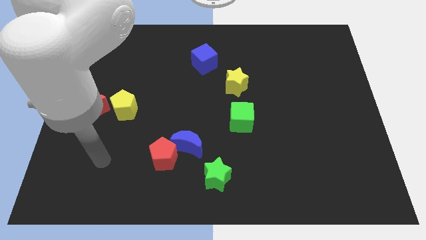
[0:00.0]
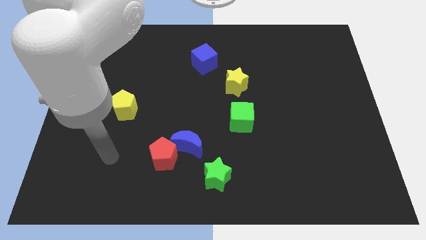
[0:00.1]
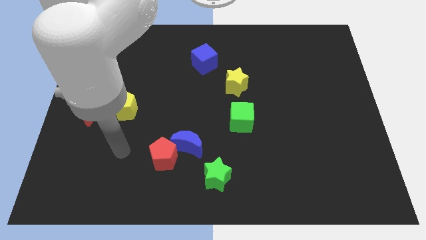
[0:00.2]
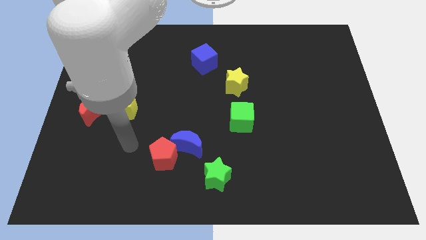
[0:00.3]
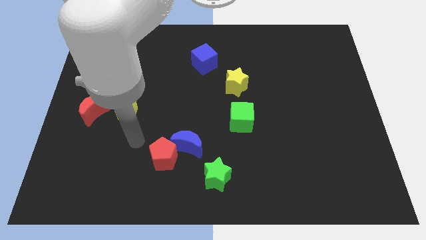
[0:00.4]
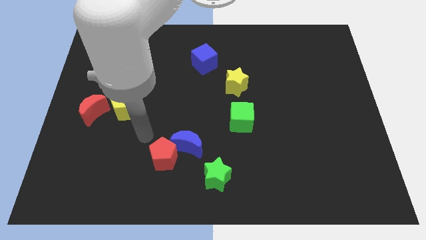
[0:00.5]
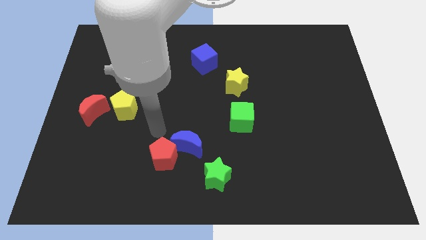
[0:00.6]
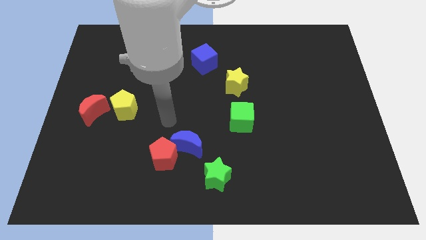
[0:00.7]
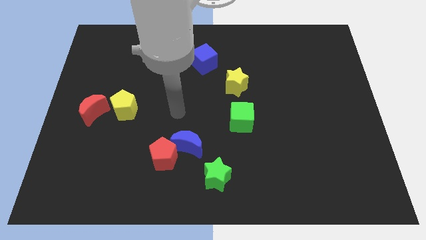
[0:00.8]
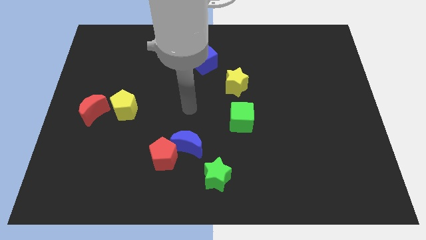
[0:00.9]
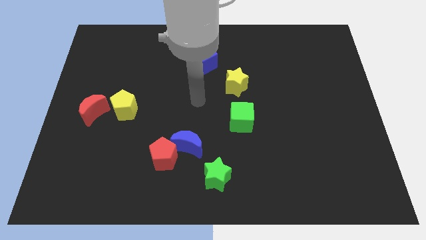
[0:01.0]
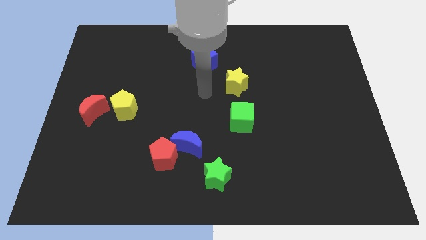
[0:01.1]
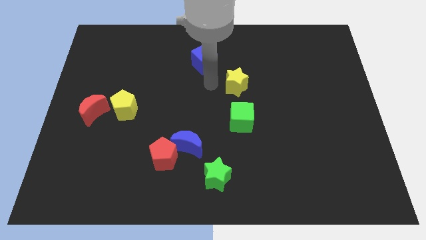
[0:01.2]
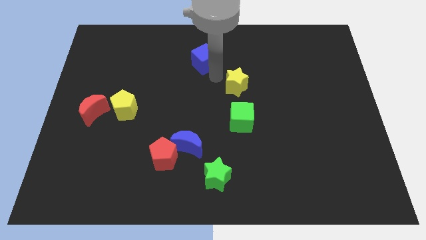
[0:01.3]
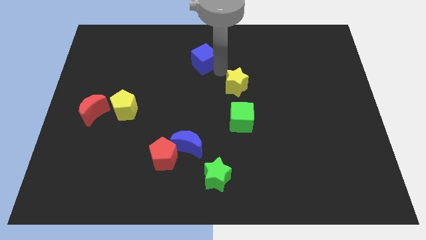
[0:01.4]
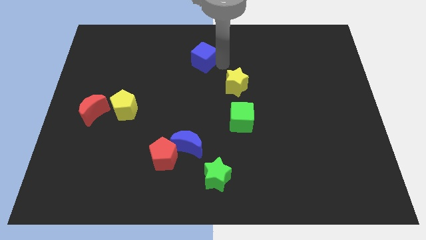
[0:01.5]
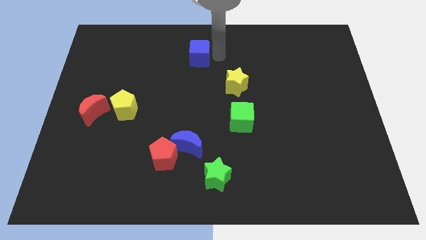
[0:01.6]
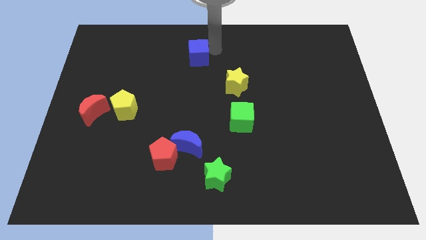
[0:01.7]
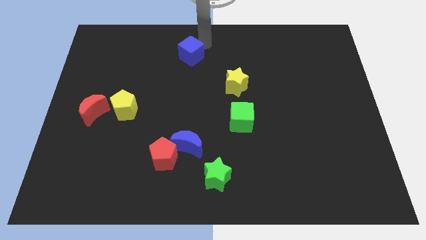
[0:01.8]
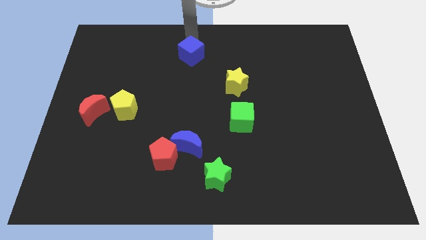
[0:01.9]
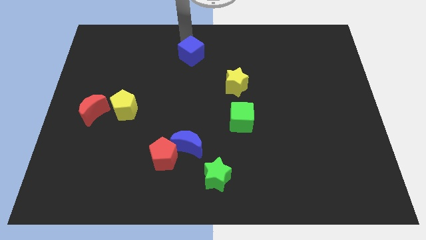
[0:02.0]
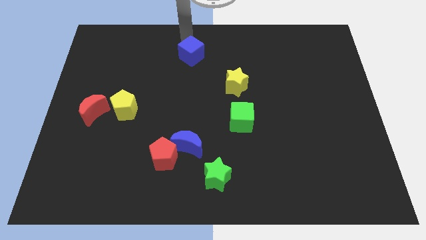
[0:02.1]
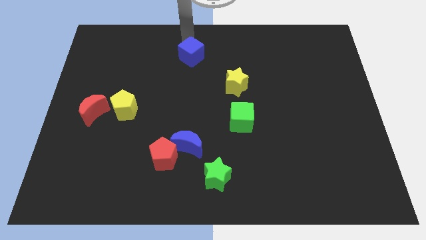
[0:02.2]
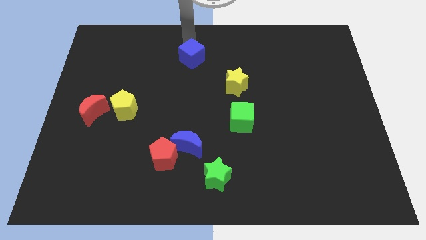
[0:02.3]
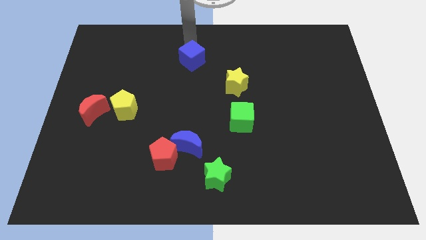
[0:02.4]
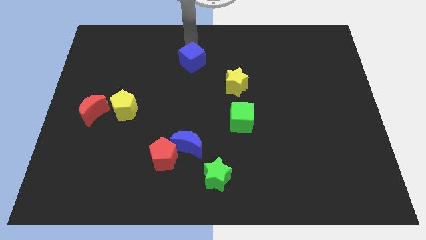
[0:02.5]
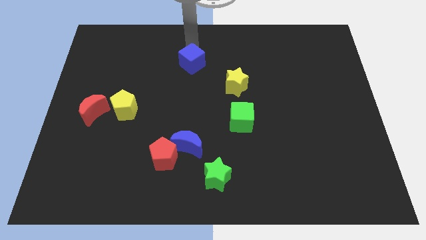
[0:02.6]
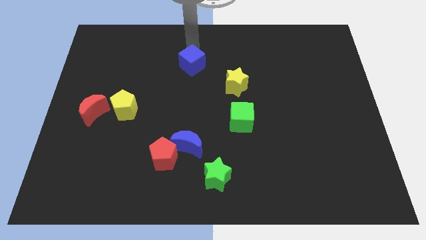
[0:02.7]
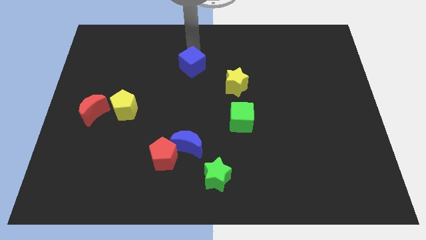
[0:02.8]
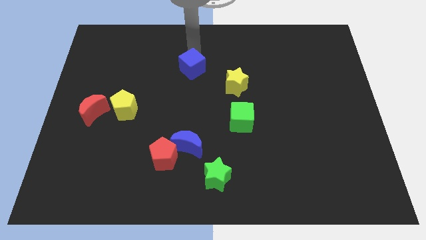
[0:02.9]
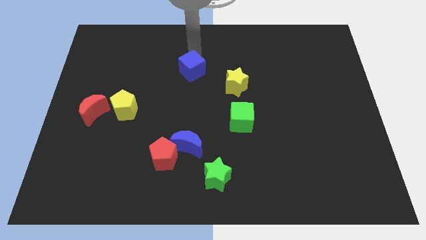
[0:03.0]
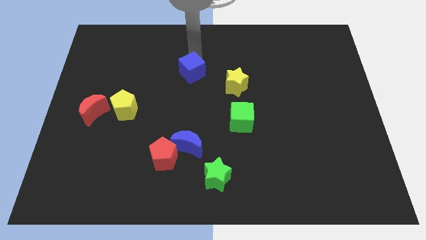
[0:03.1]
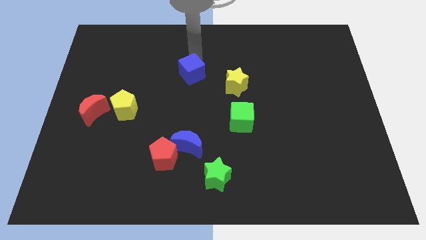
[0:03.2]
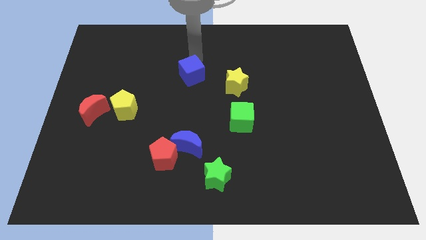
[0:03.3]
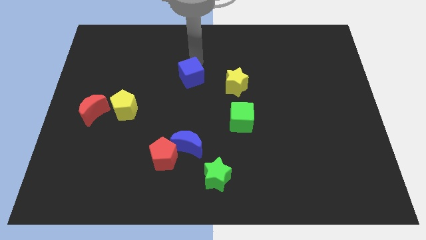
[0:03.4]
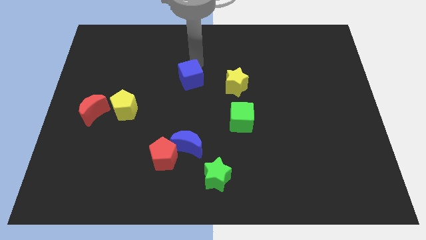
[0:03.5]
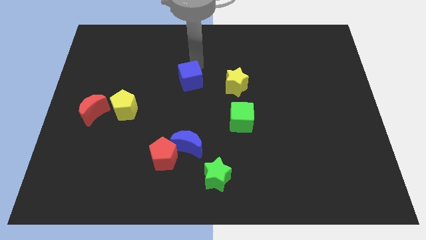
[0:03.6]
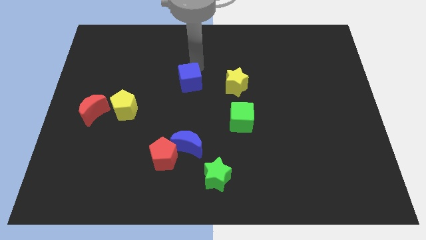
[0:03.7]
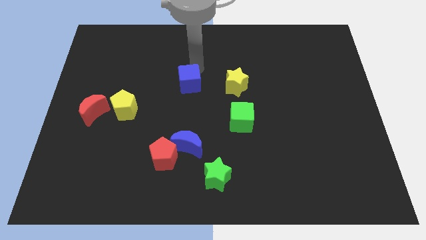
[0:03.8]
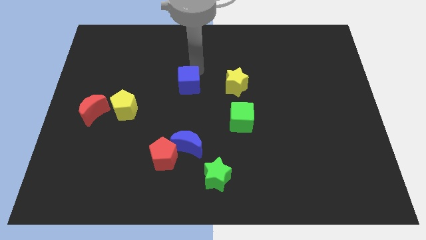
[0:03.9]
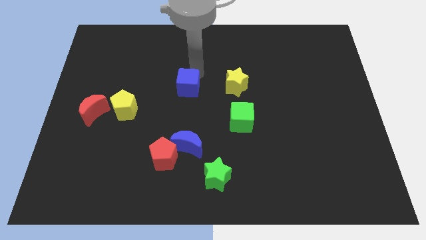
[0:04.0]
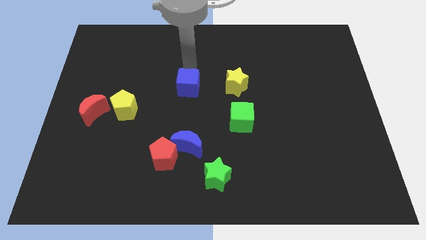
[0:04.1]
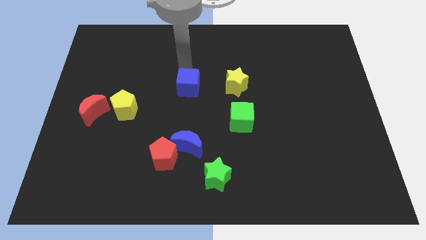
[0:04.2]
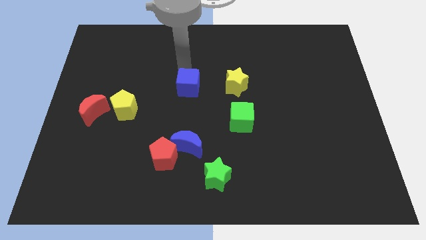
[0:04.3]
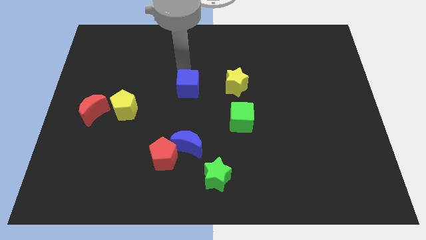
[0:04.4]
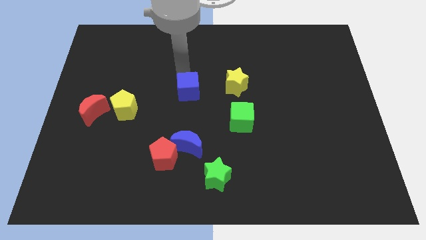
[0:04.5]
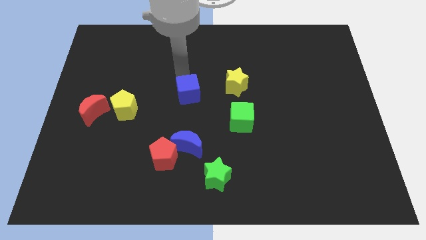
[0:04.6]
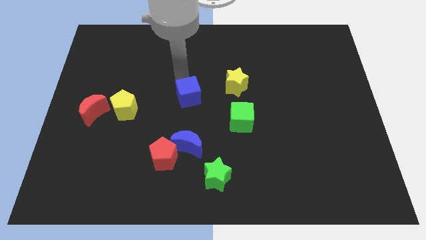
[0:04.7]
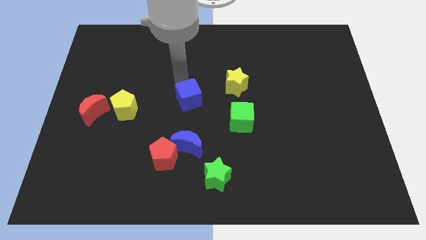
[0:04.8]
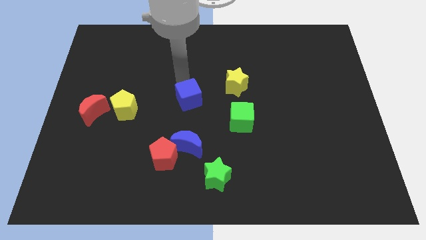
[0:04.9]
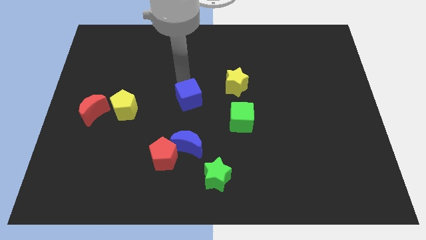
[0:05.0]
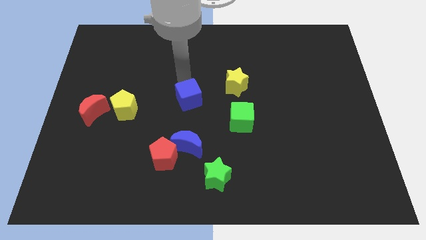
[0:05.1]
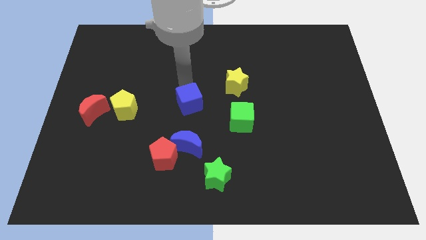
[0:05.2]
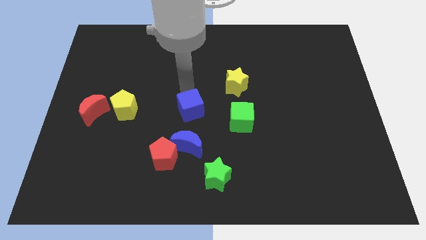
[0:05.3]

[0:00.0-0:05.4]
move the blue cube to the left side of the green cube
